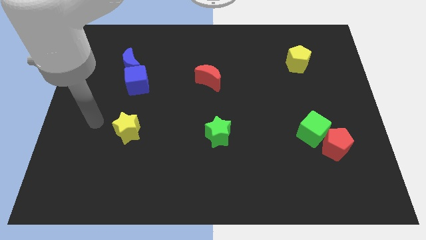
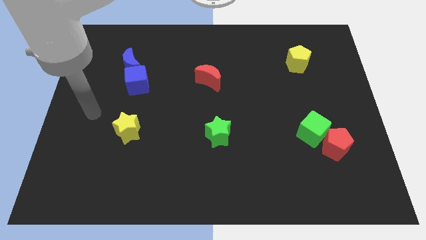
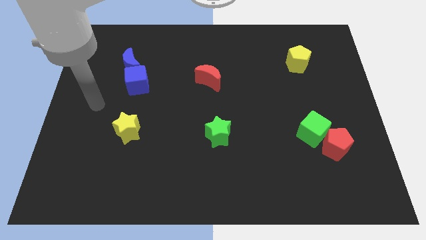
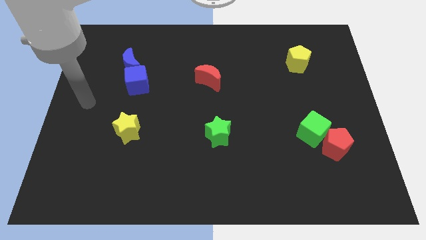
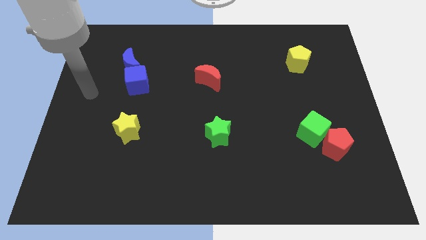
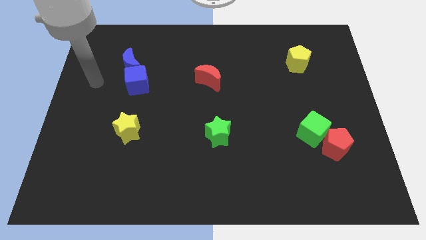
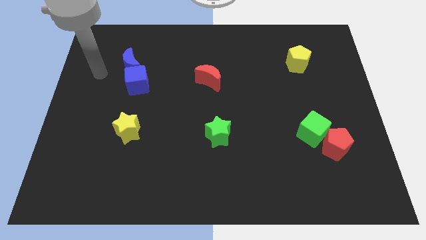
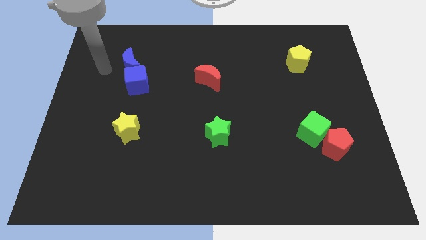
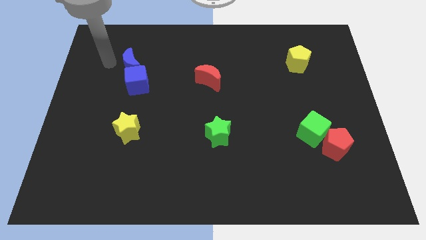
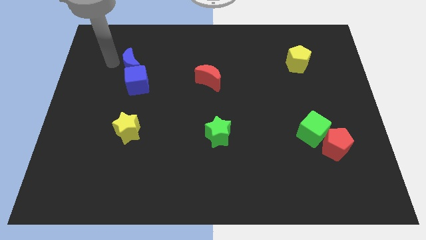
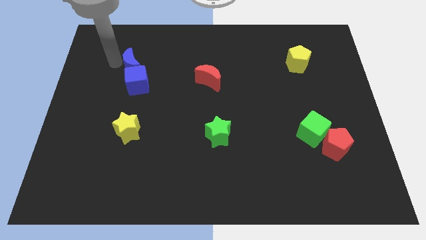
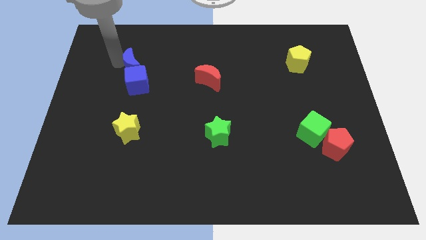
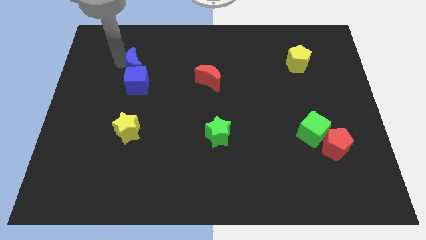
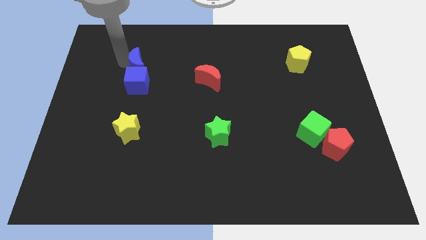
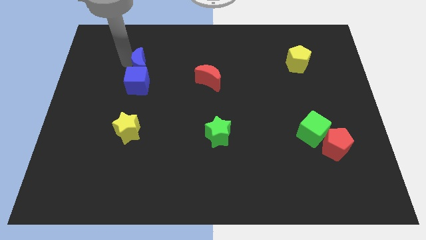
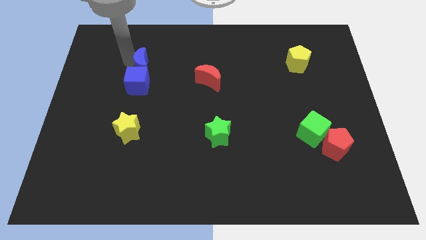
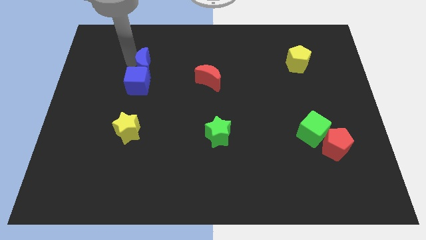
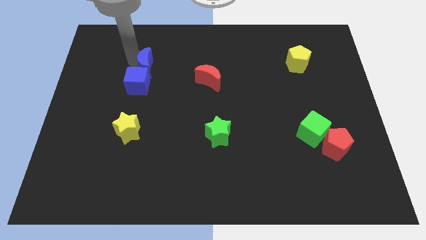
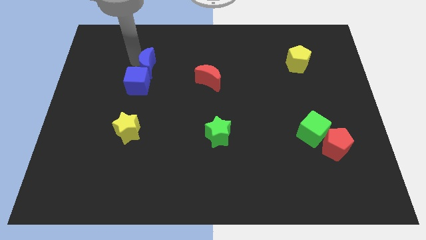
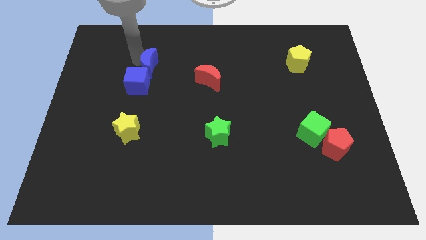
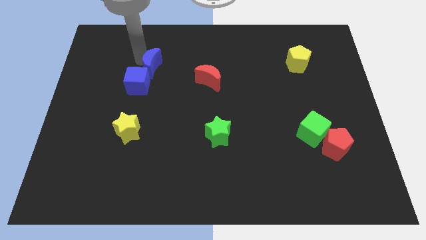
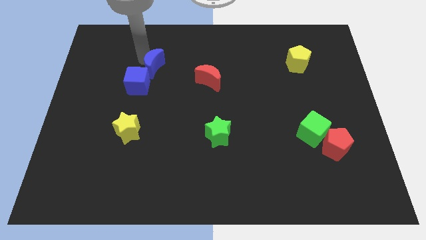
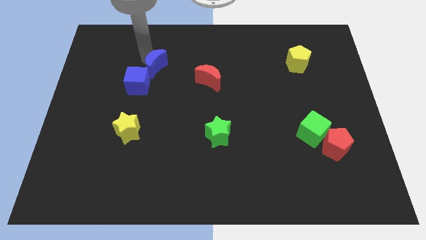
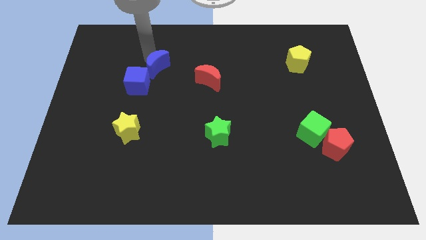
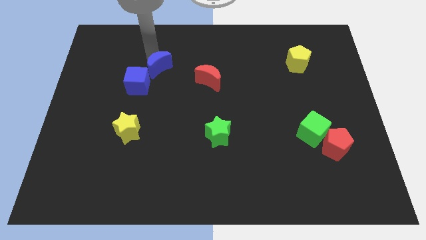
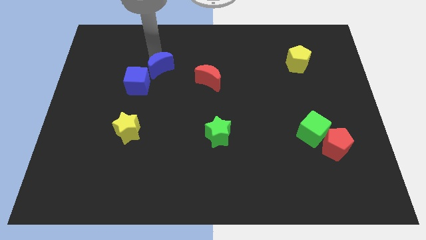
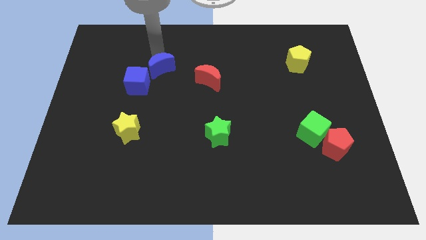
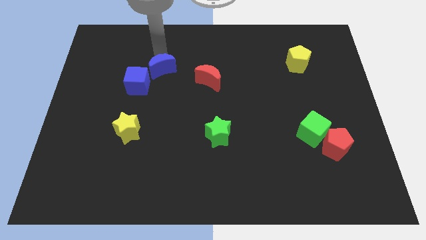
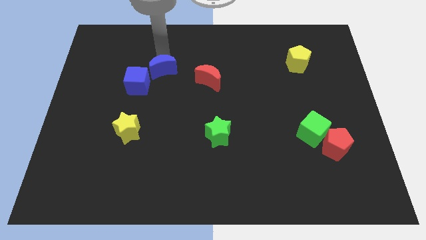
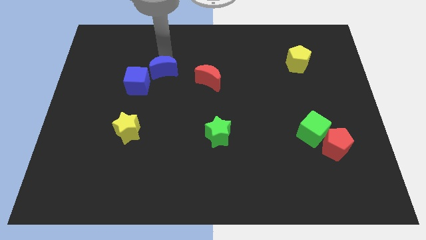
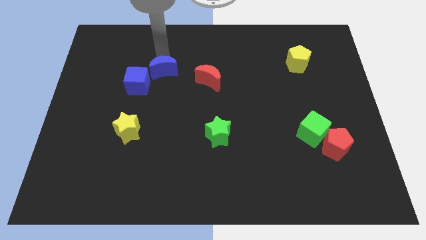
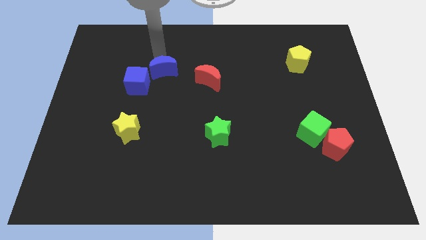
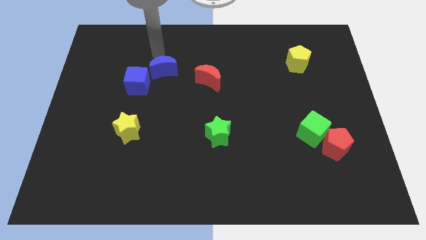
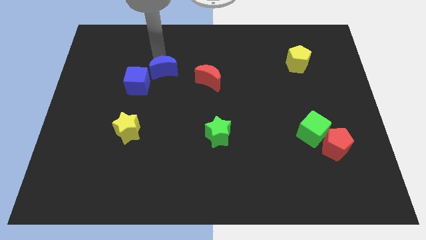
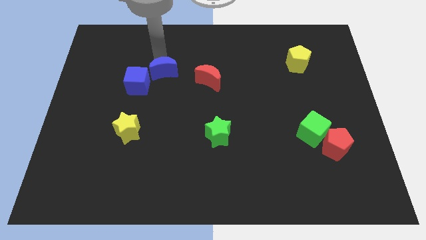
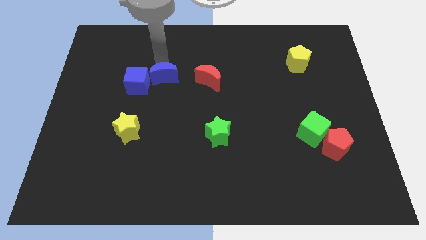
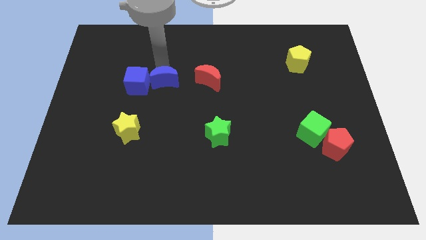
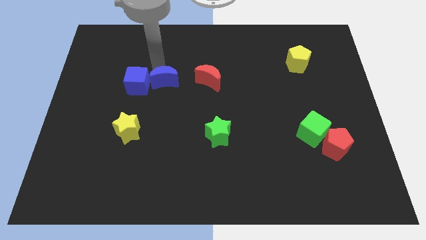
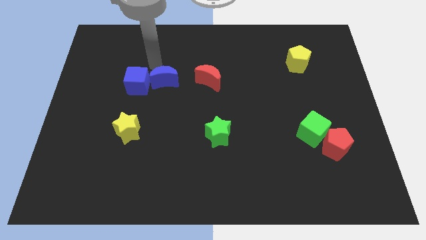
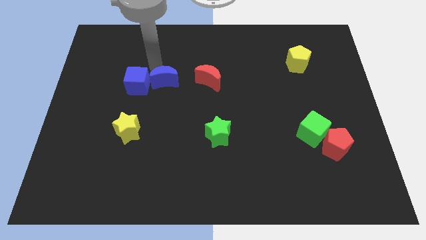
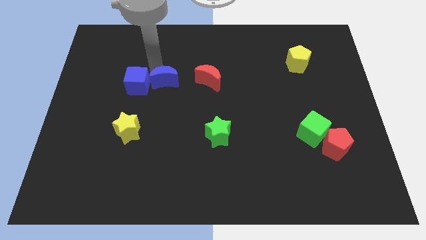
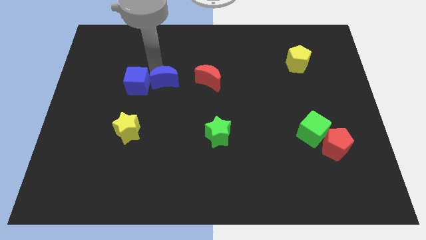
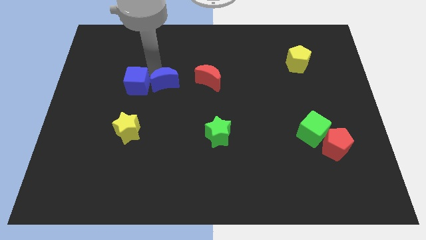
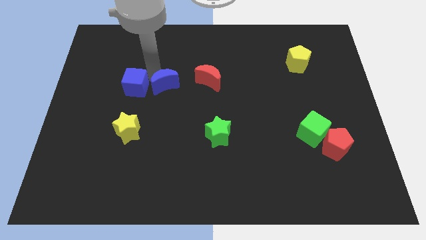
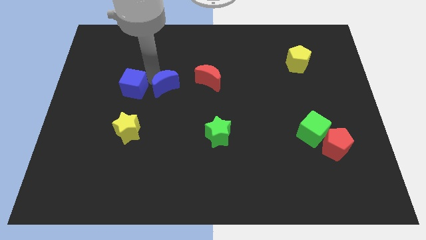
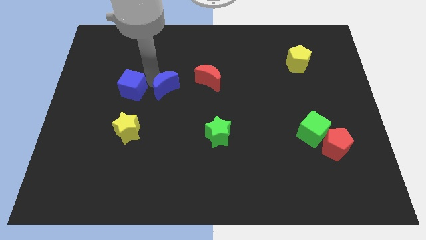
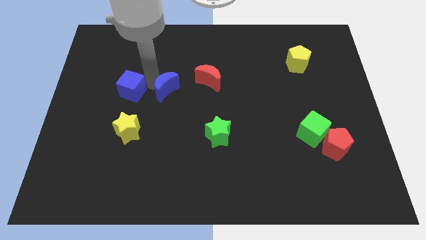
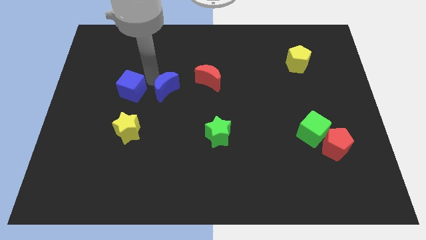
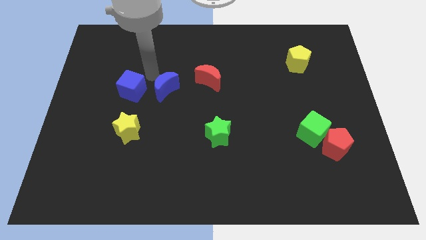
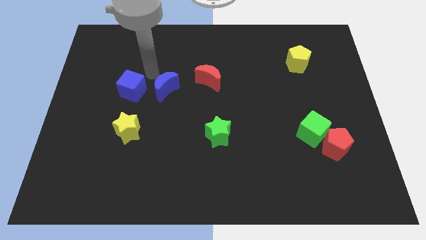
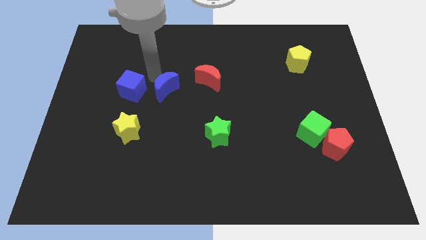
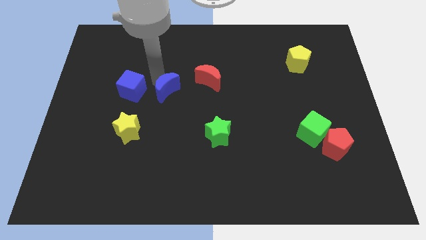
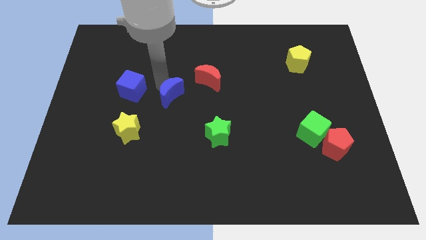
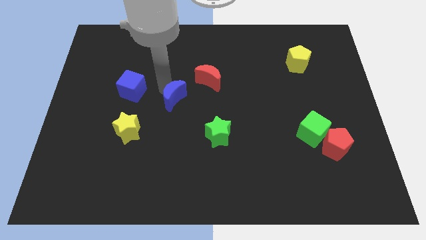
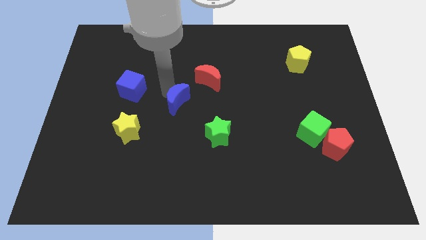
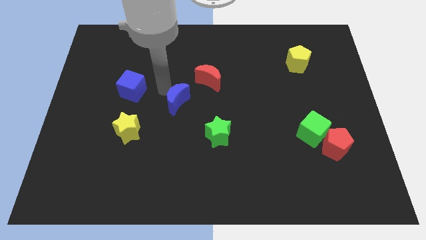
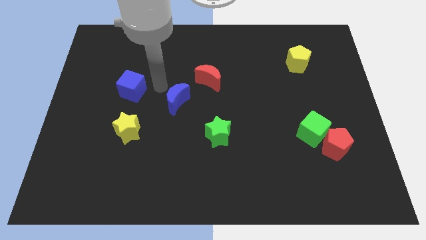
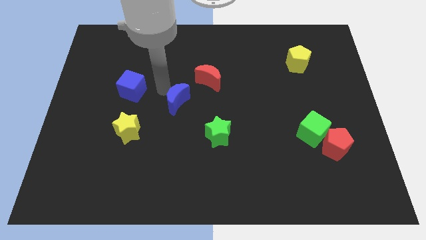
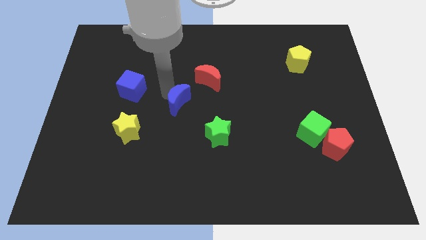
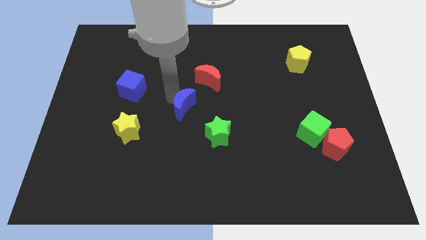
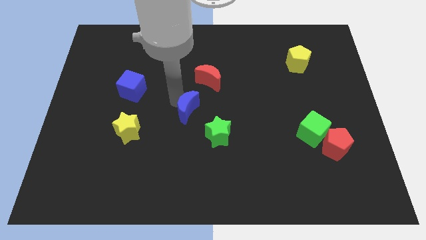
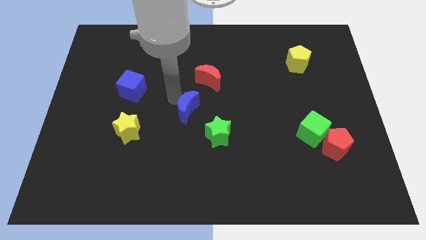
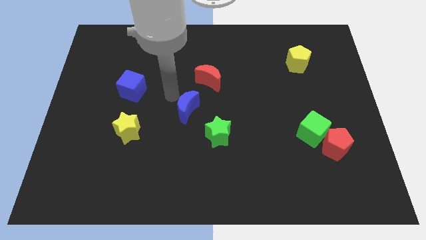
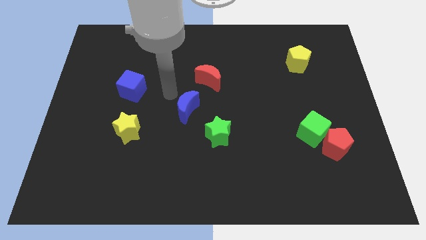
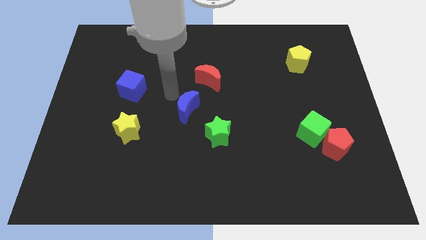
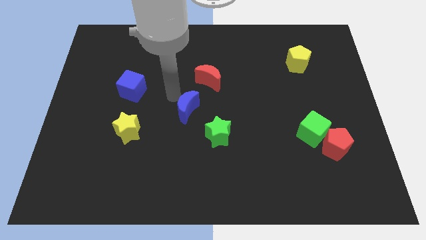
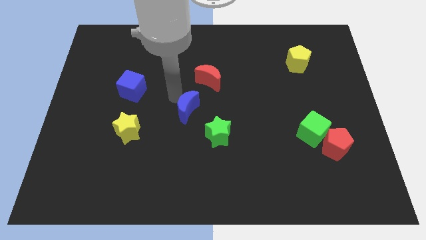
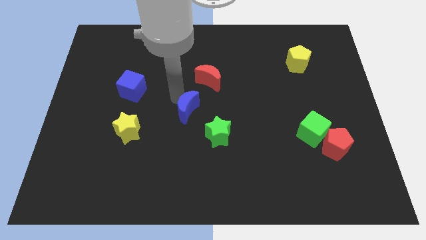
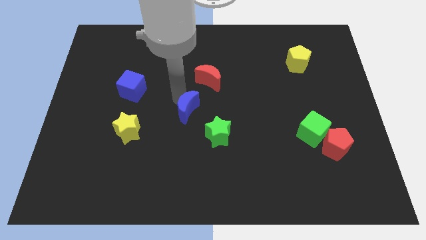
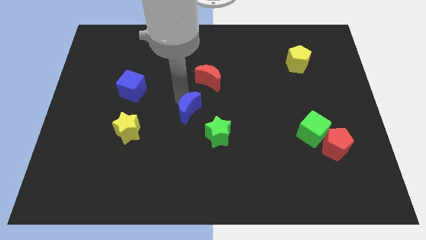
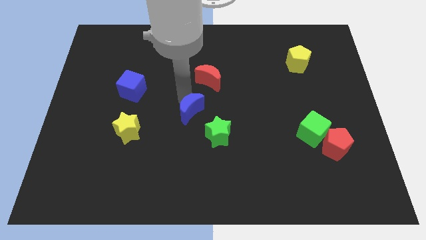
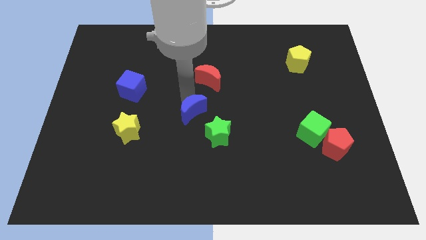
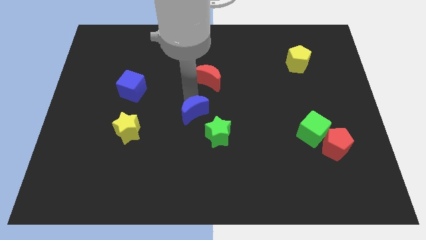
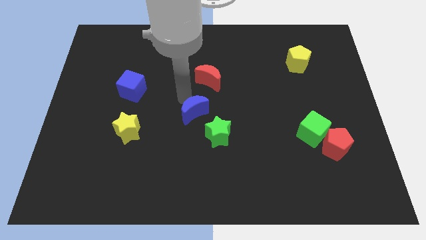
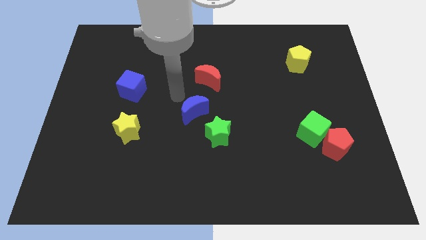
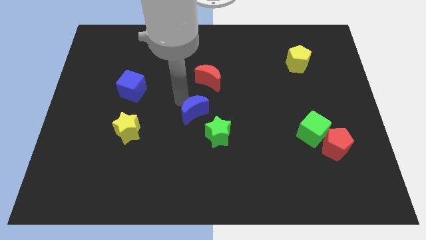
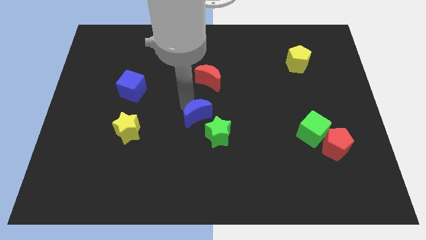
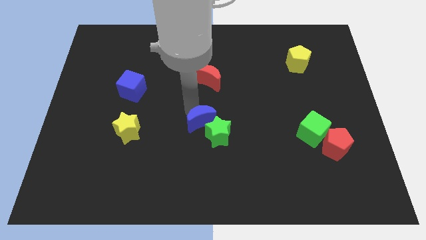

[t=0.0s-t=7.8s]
slide the blue moon to the green star
